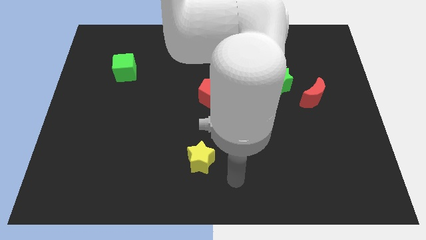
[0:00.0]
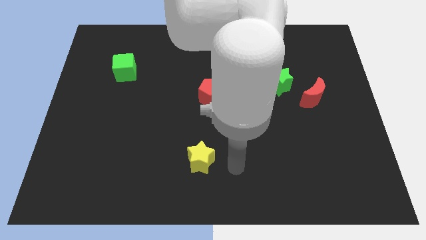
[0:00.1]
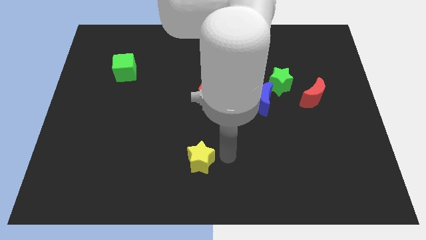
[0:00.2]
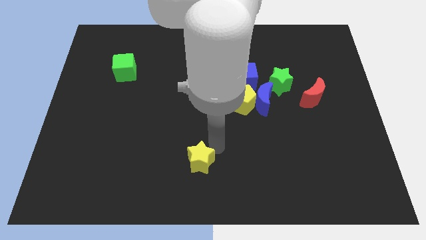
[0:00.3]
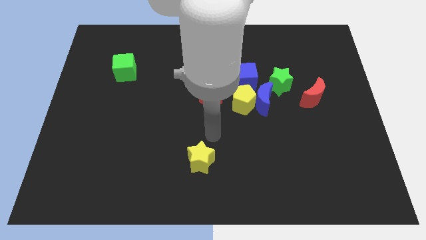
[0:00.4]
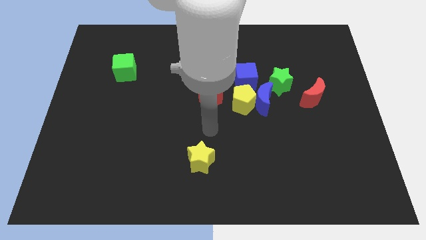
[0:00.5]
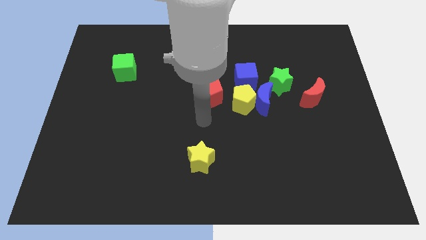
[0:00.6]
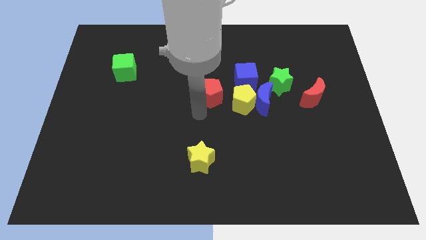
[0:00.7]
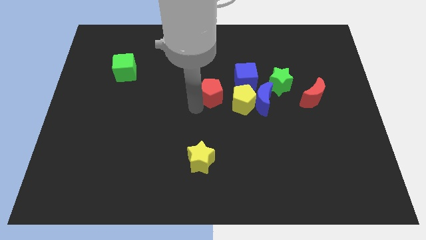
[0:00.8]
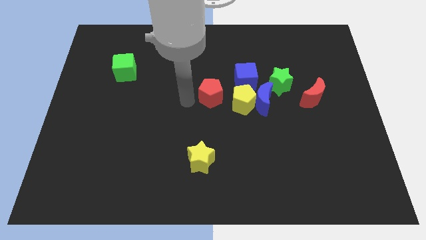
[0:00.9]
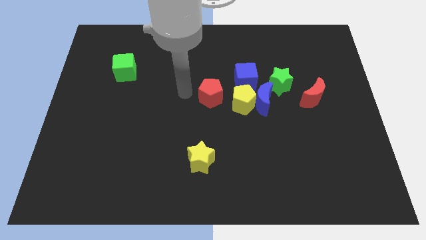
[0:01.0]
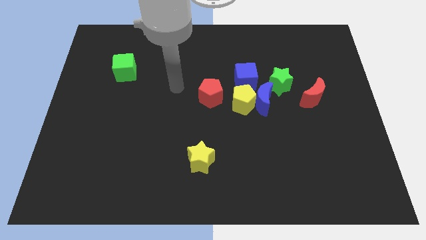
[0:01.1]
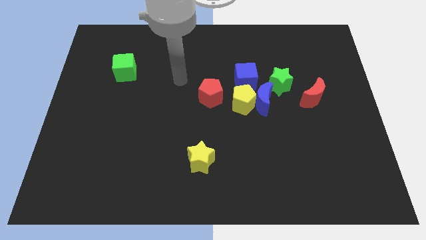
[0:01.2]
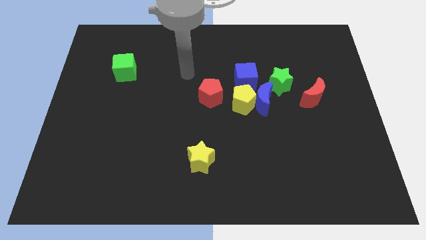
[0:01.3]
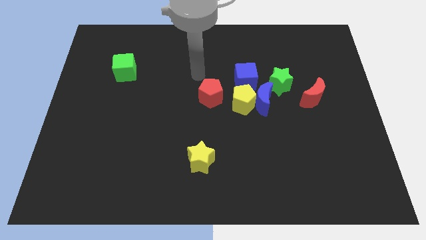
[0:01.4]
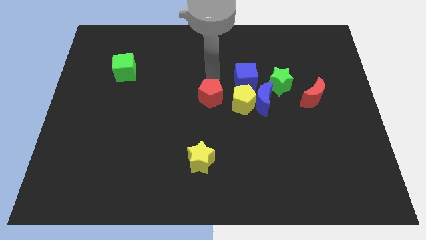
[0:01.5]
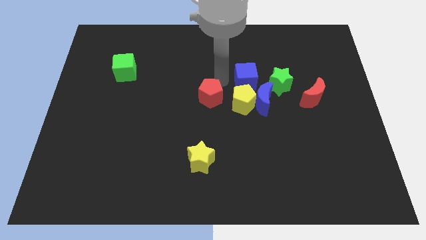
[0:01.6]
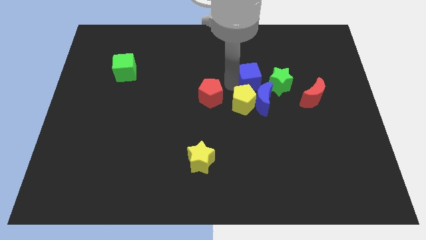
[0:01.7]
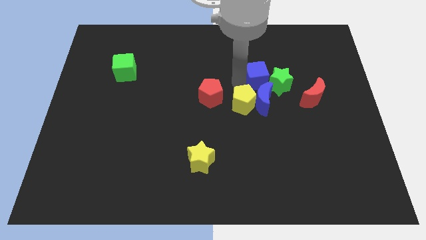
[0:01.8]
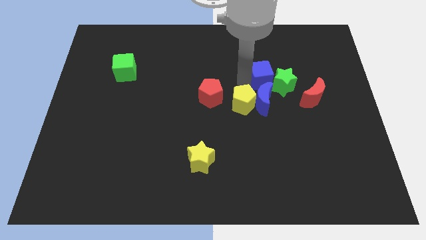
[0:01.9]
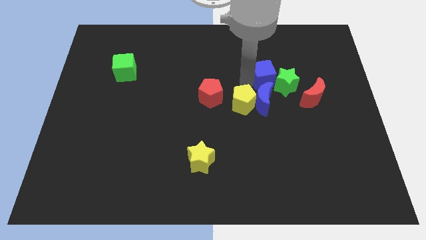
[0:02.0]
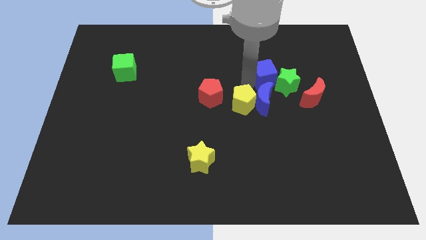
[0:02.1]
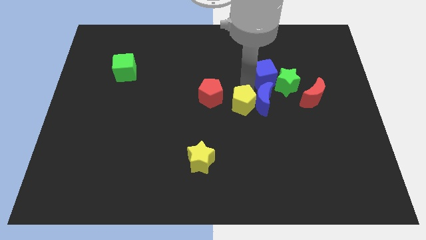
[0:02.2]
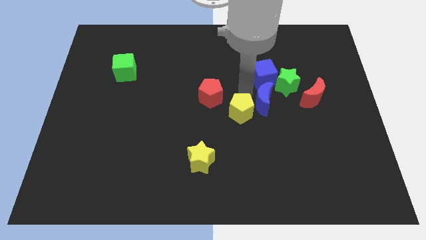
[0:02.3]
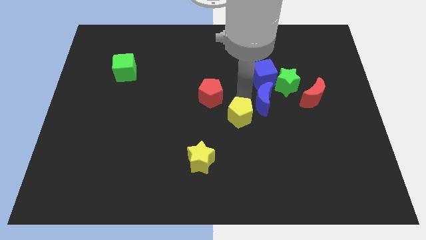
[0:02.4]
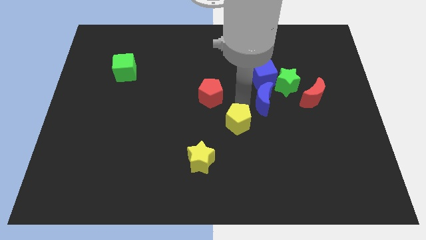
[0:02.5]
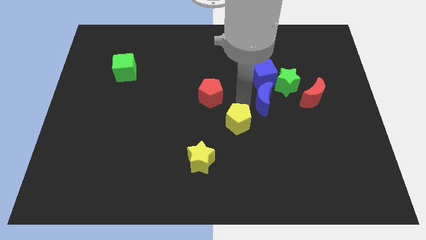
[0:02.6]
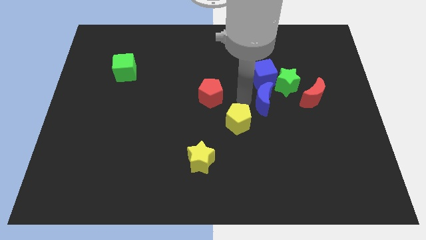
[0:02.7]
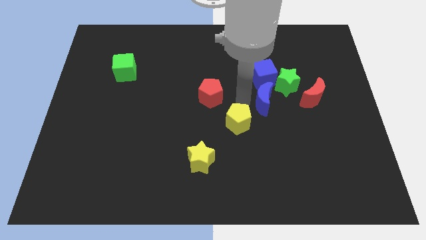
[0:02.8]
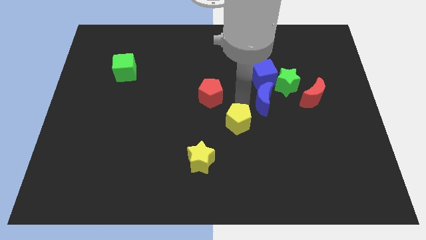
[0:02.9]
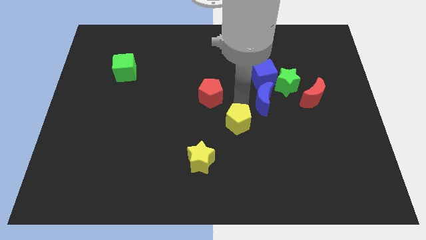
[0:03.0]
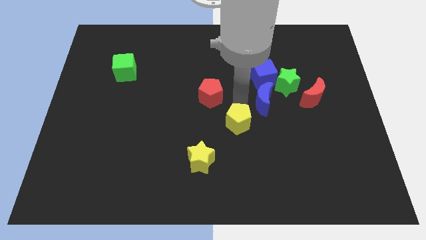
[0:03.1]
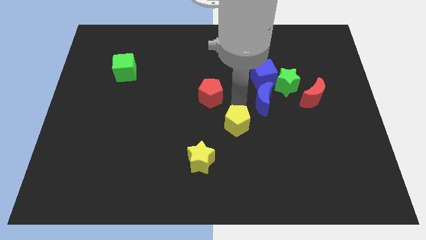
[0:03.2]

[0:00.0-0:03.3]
pull the yellow pentagon apart from the clump

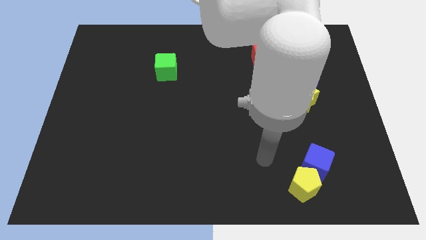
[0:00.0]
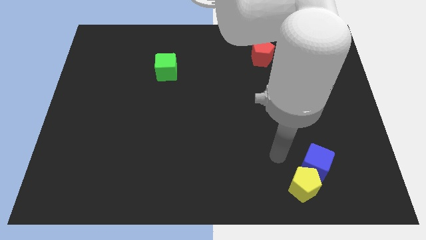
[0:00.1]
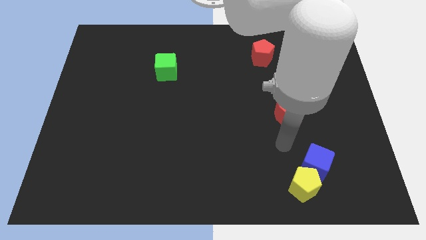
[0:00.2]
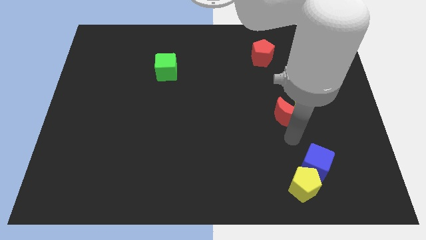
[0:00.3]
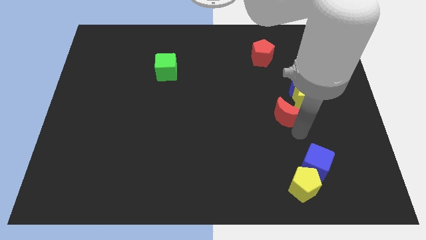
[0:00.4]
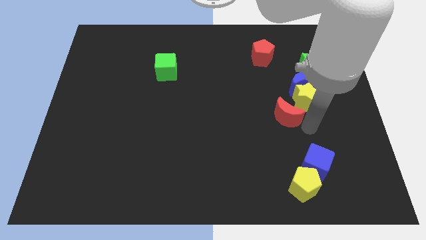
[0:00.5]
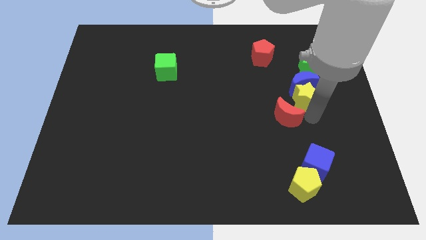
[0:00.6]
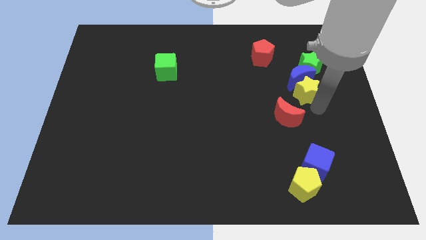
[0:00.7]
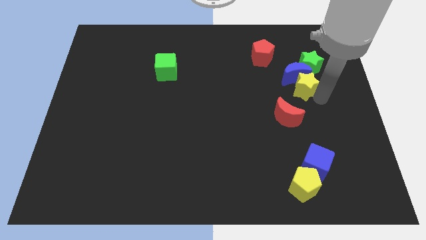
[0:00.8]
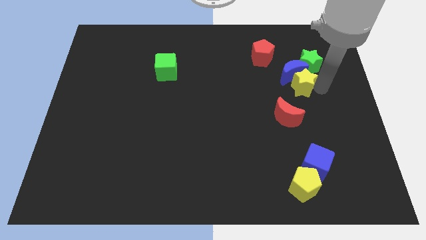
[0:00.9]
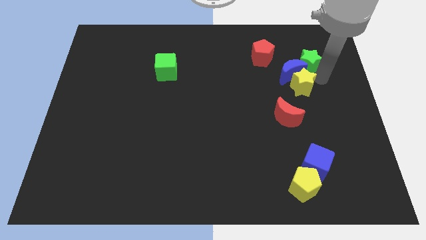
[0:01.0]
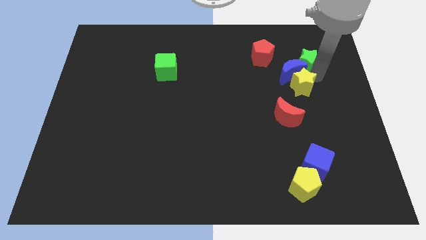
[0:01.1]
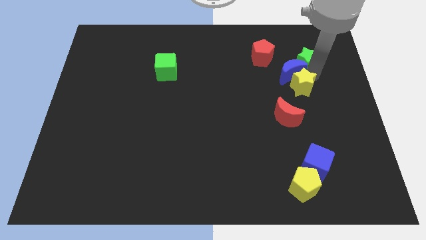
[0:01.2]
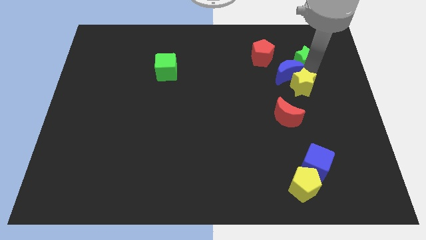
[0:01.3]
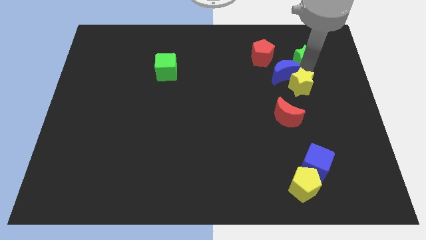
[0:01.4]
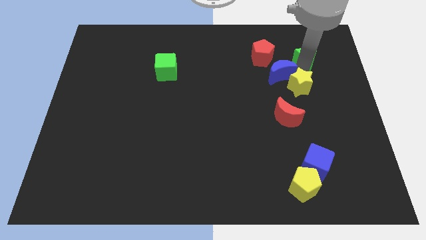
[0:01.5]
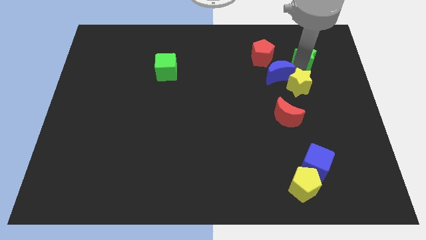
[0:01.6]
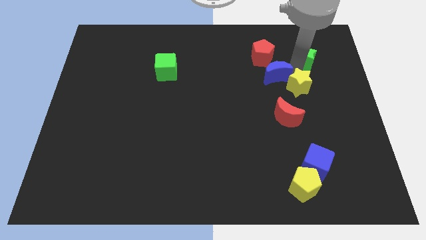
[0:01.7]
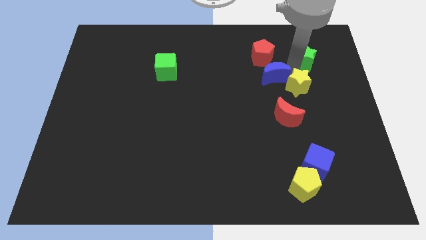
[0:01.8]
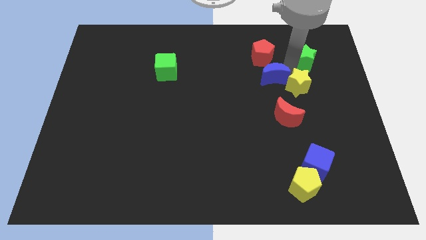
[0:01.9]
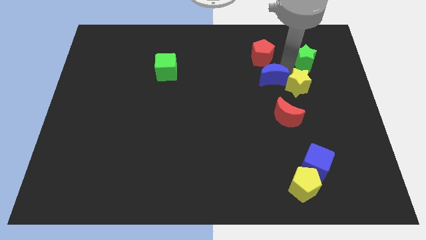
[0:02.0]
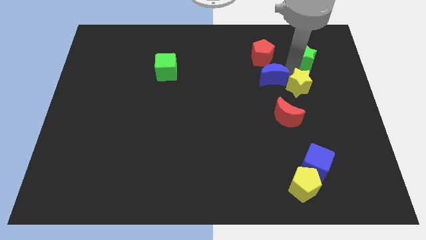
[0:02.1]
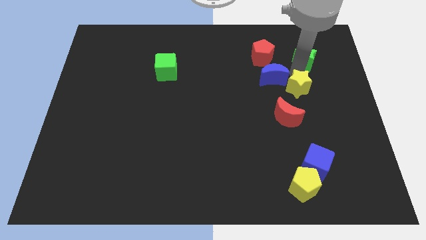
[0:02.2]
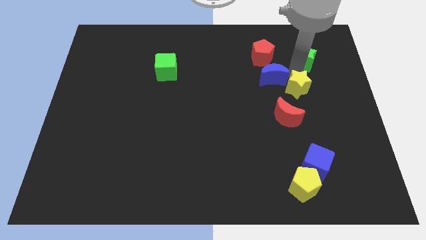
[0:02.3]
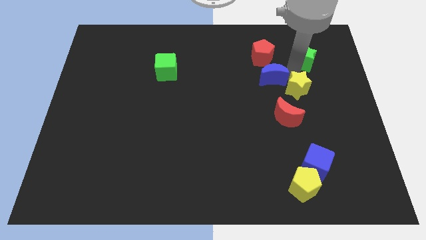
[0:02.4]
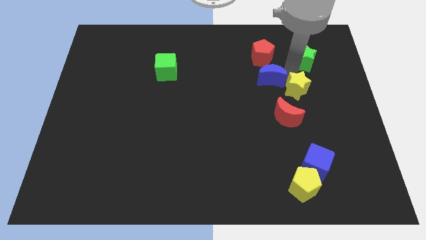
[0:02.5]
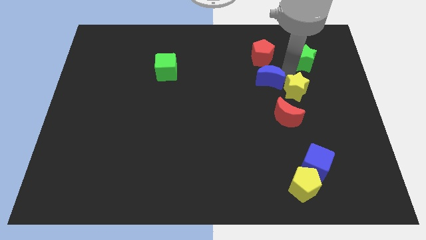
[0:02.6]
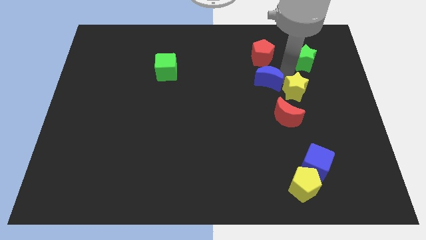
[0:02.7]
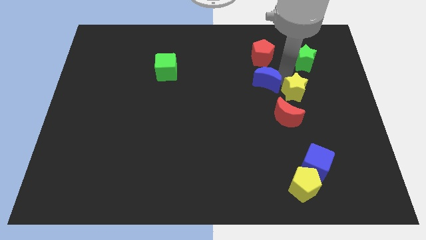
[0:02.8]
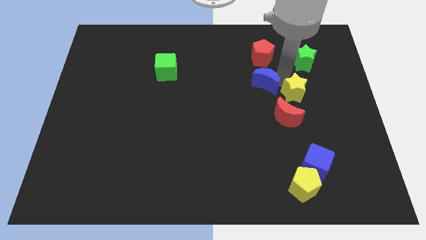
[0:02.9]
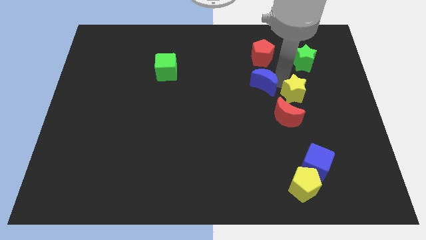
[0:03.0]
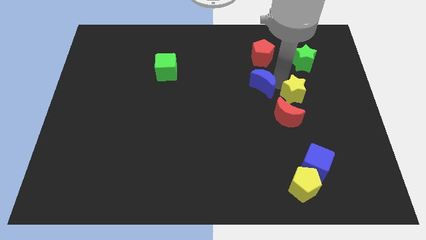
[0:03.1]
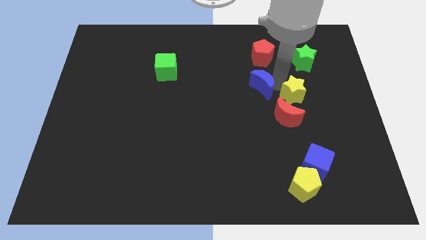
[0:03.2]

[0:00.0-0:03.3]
pull the blue moon apart from the yellow star and green star

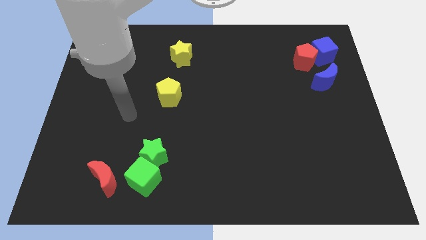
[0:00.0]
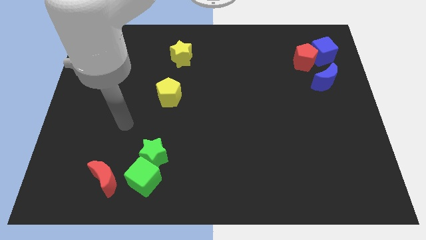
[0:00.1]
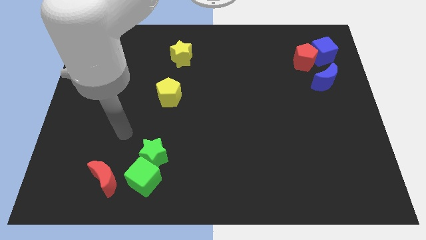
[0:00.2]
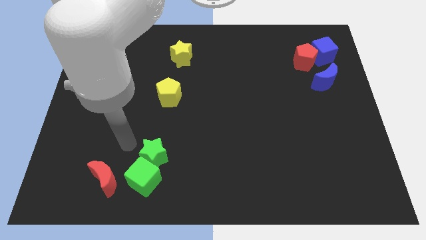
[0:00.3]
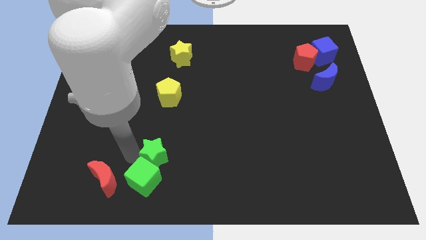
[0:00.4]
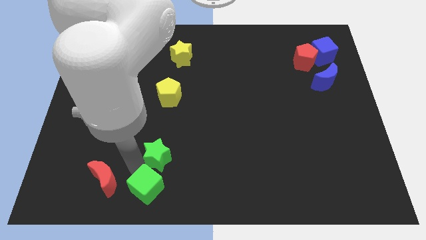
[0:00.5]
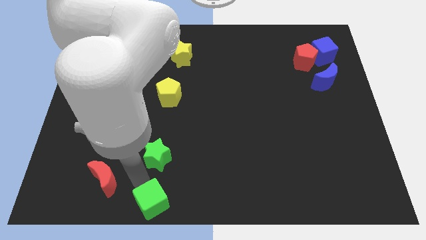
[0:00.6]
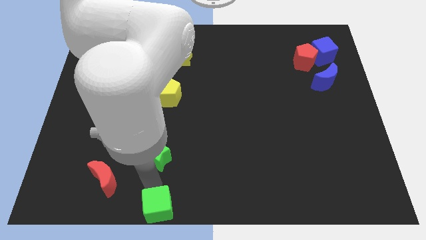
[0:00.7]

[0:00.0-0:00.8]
separate the green star from the green cube

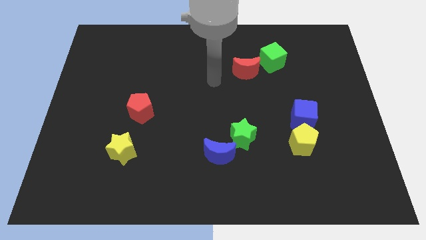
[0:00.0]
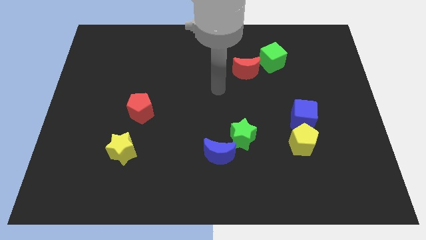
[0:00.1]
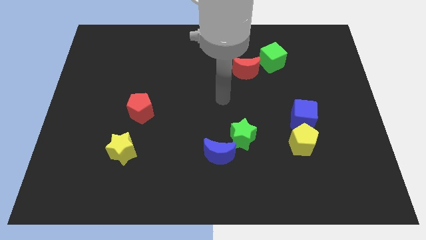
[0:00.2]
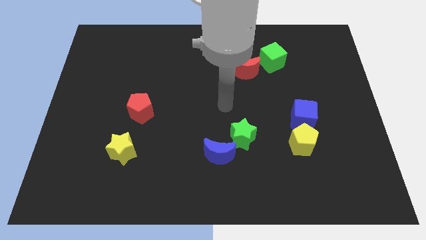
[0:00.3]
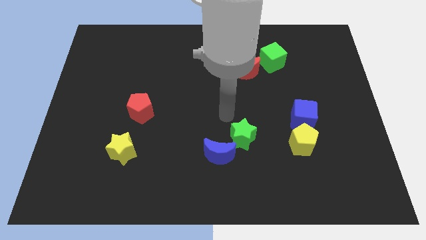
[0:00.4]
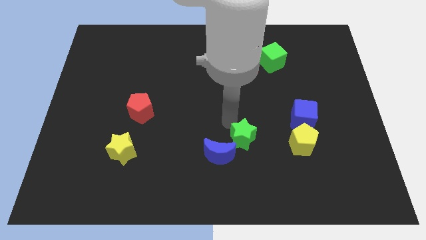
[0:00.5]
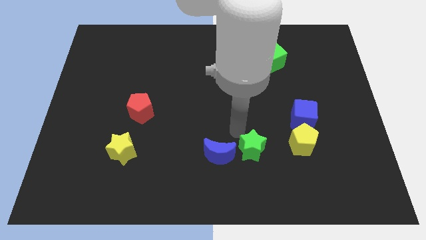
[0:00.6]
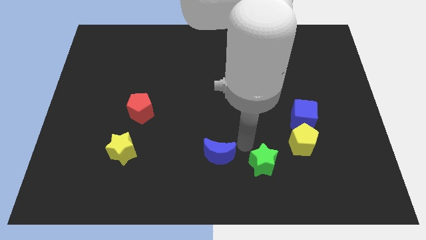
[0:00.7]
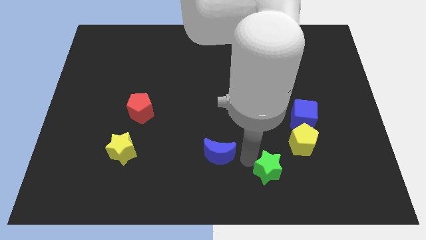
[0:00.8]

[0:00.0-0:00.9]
separate the blue moon from the green star

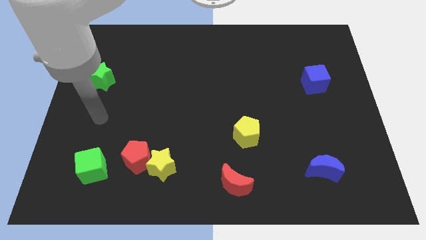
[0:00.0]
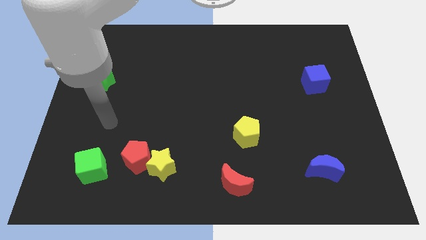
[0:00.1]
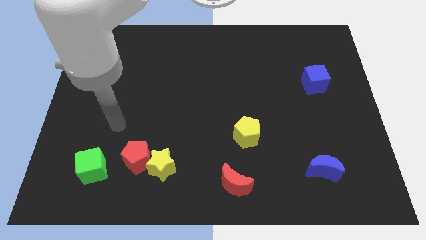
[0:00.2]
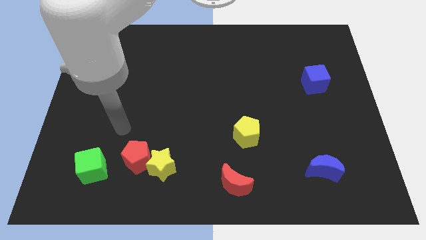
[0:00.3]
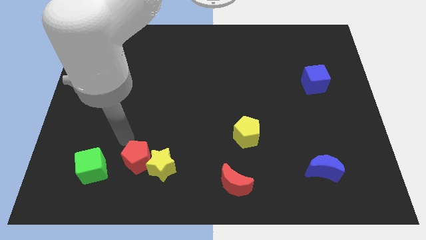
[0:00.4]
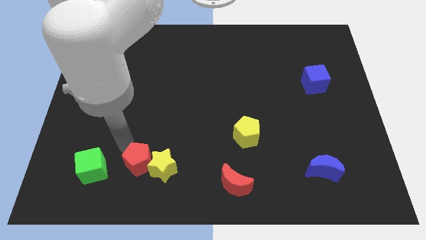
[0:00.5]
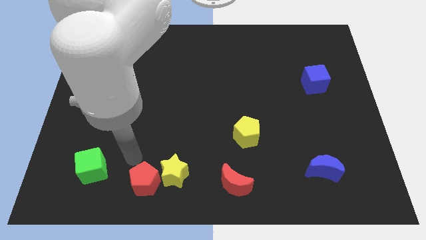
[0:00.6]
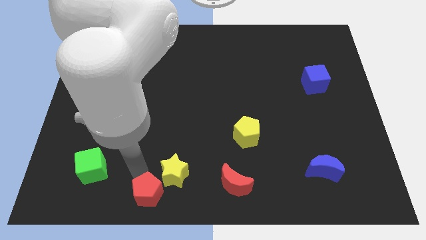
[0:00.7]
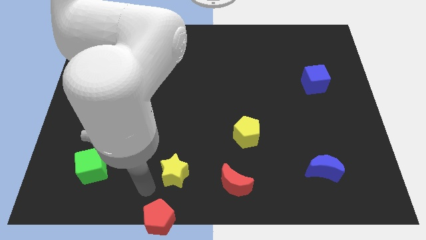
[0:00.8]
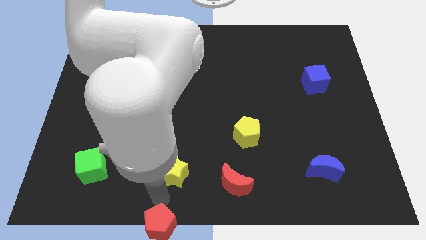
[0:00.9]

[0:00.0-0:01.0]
pull the yellow star apart from the red pentagon
